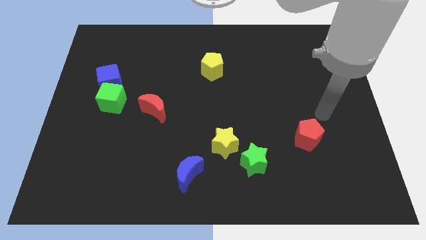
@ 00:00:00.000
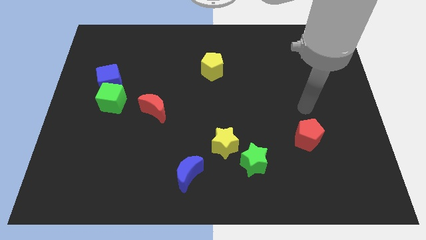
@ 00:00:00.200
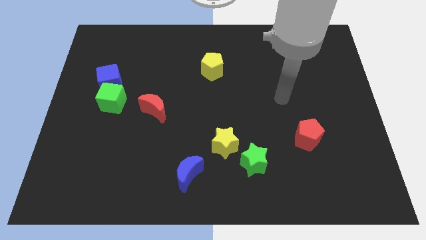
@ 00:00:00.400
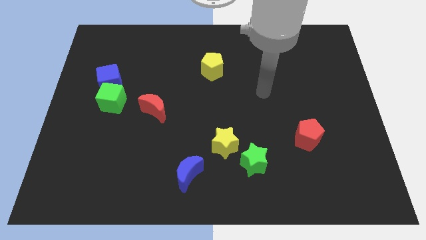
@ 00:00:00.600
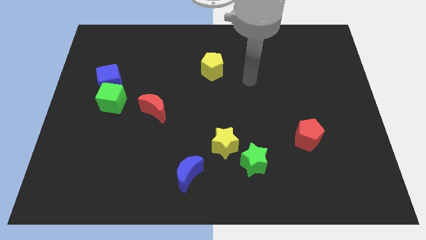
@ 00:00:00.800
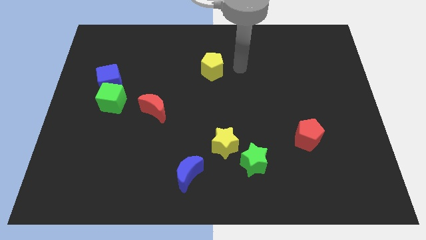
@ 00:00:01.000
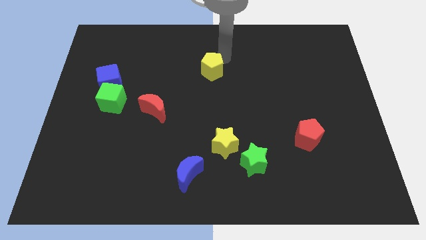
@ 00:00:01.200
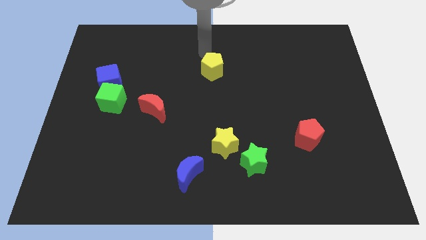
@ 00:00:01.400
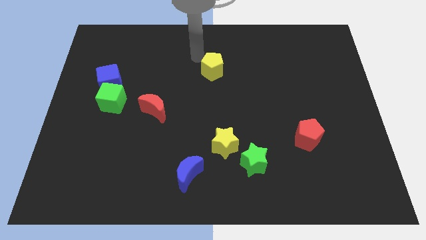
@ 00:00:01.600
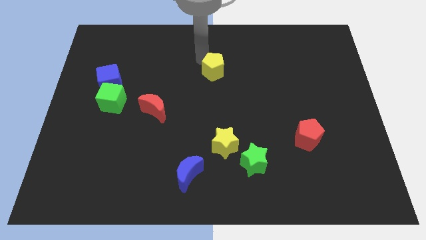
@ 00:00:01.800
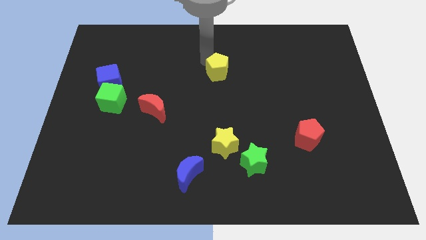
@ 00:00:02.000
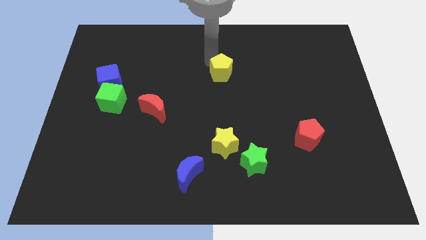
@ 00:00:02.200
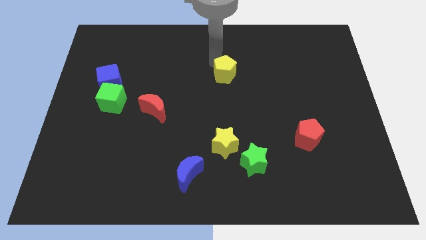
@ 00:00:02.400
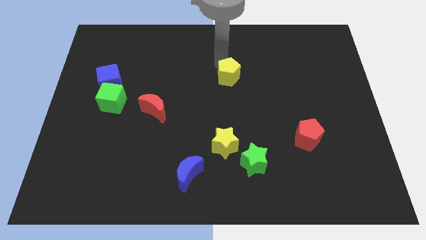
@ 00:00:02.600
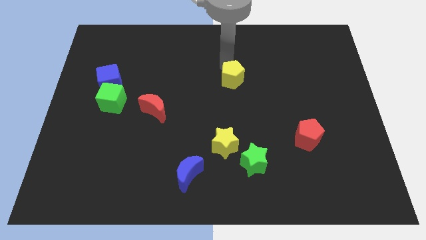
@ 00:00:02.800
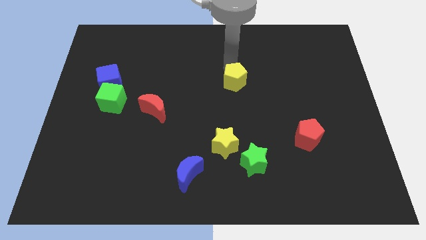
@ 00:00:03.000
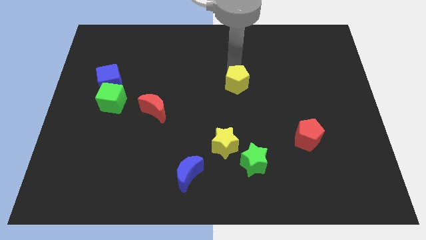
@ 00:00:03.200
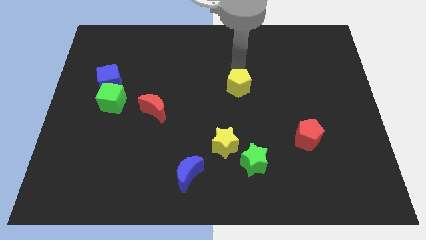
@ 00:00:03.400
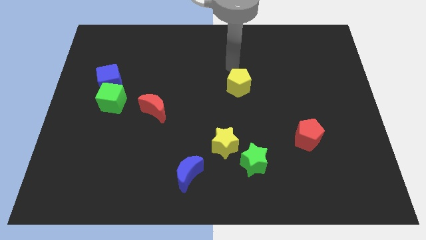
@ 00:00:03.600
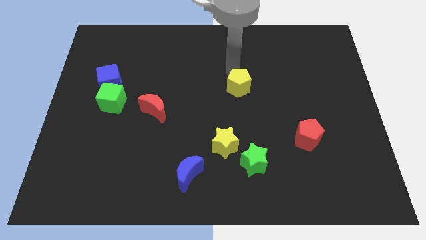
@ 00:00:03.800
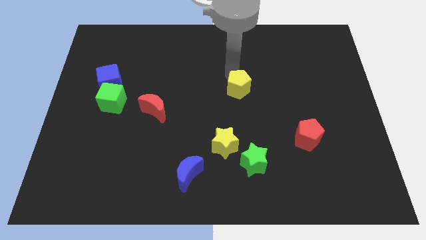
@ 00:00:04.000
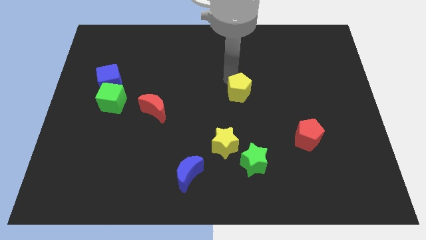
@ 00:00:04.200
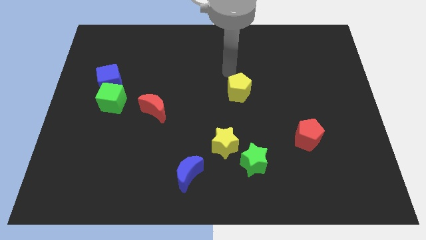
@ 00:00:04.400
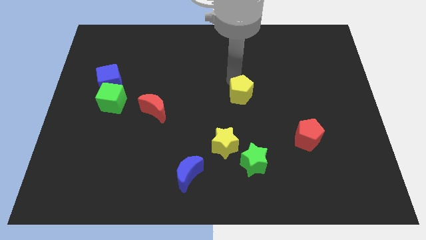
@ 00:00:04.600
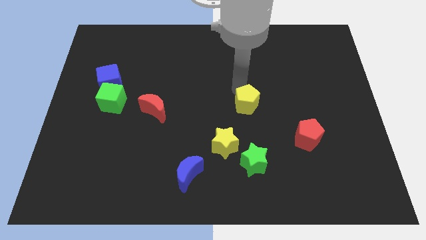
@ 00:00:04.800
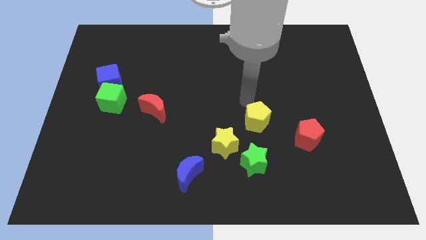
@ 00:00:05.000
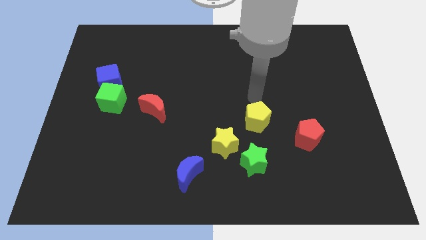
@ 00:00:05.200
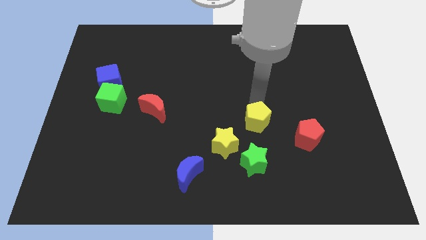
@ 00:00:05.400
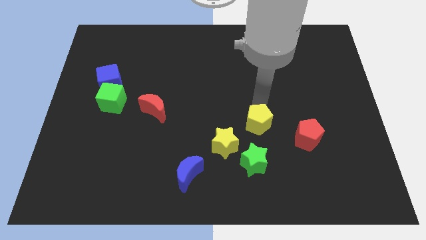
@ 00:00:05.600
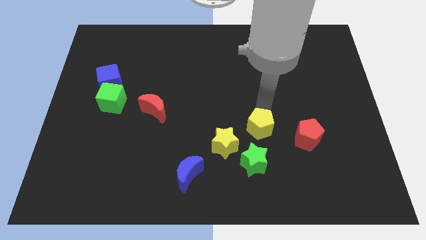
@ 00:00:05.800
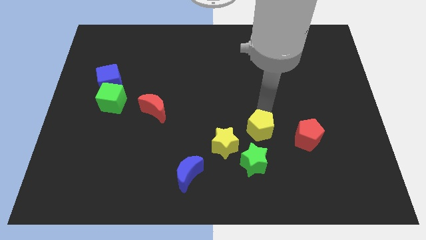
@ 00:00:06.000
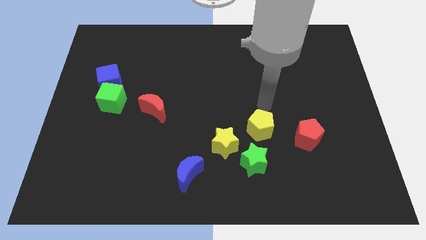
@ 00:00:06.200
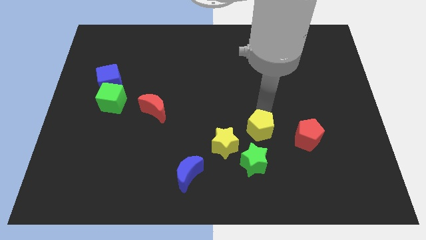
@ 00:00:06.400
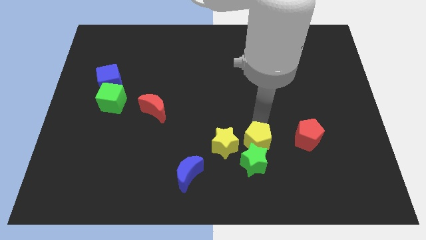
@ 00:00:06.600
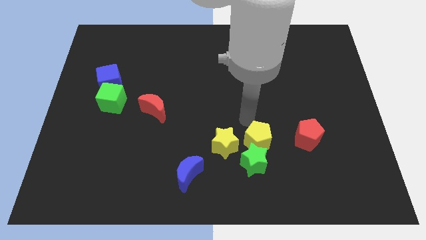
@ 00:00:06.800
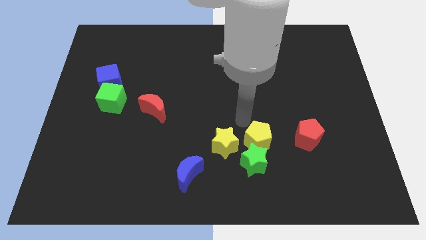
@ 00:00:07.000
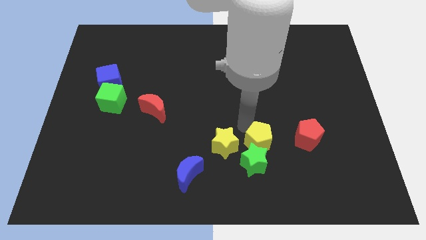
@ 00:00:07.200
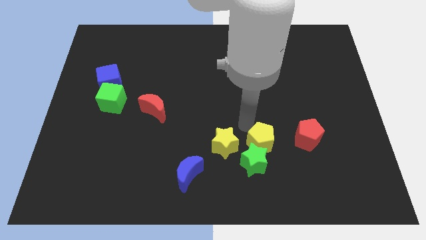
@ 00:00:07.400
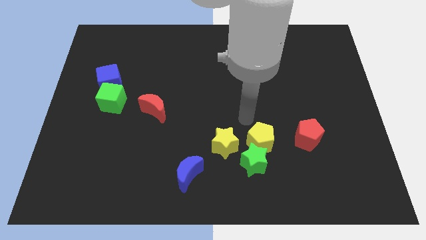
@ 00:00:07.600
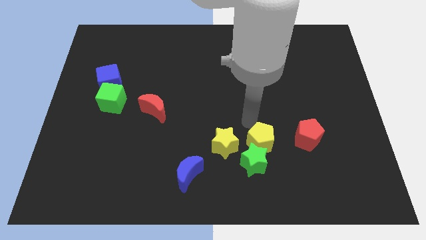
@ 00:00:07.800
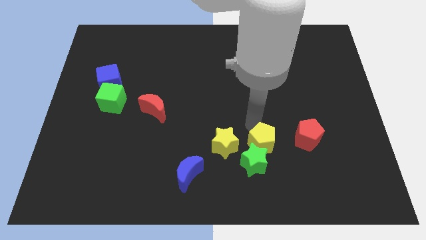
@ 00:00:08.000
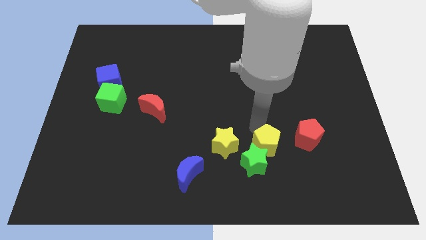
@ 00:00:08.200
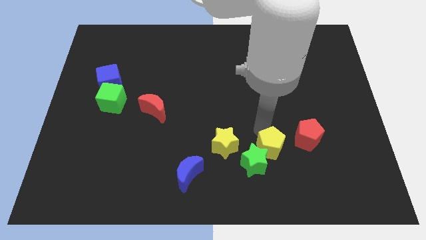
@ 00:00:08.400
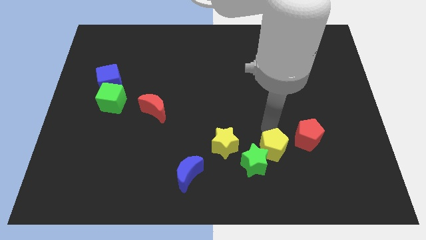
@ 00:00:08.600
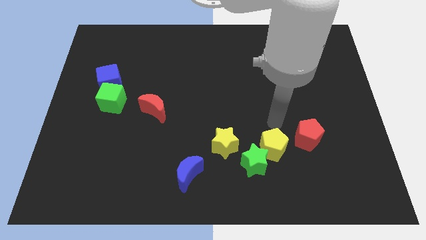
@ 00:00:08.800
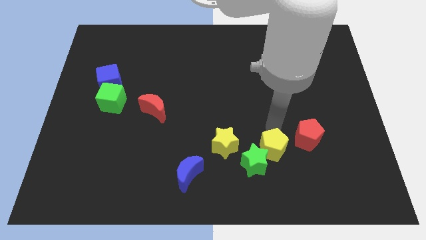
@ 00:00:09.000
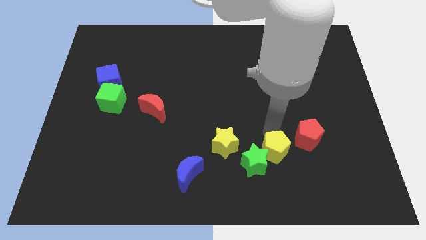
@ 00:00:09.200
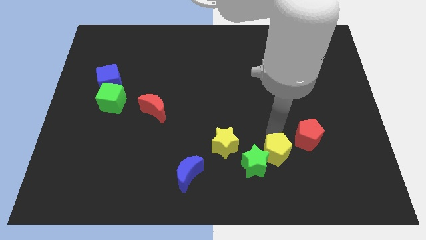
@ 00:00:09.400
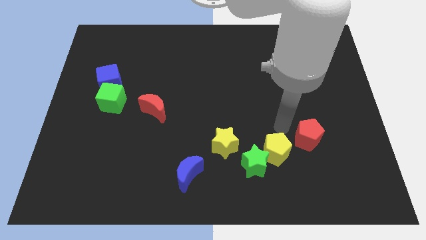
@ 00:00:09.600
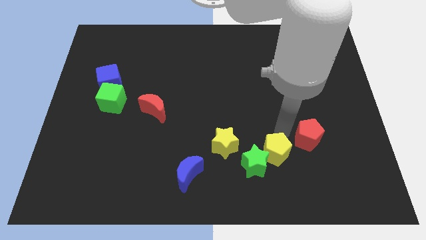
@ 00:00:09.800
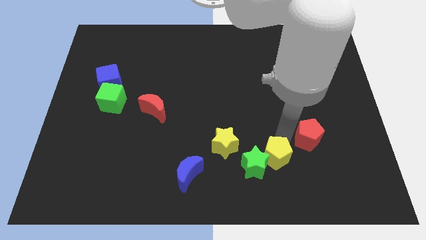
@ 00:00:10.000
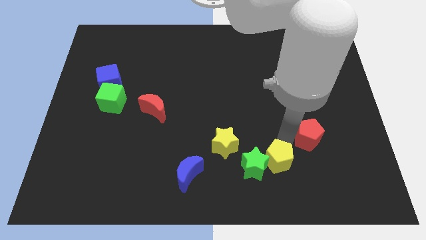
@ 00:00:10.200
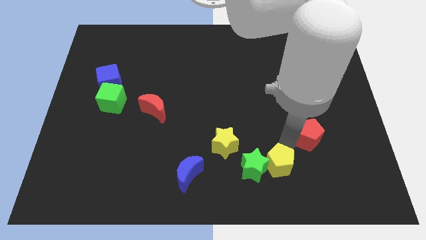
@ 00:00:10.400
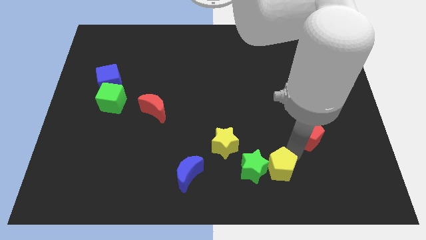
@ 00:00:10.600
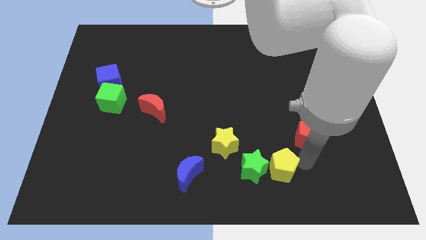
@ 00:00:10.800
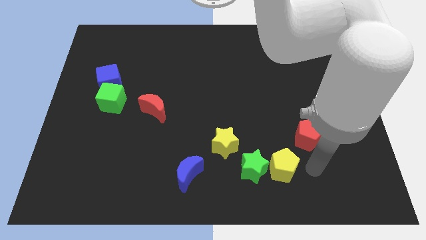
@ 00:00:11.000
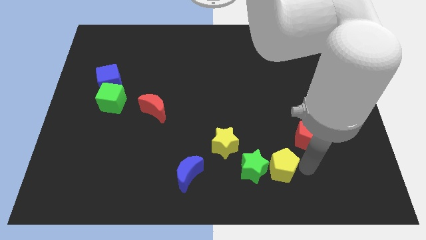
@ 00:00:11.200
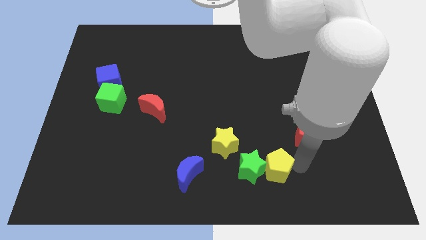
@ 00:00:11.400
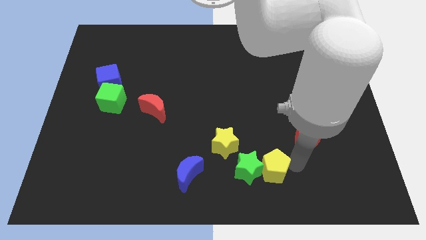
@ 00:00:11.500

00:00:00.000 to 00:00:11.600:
move the yellow pentagon diagonally down and to the right of the yellow star

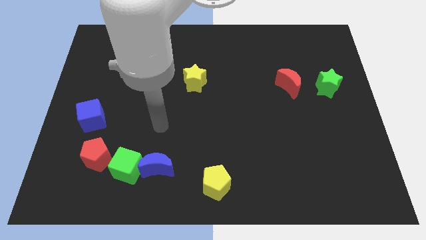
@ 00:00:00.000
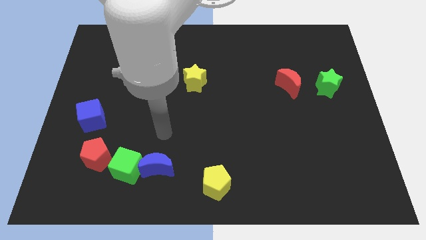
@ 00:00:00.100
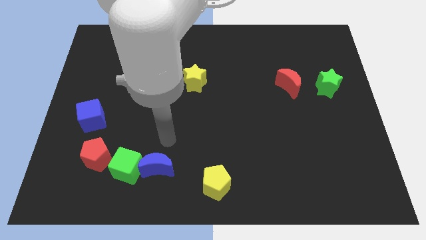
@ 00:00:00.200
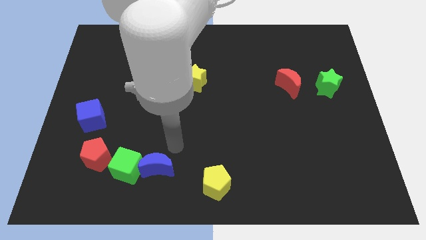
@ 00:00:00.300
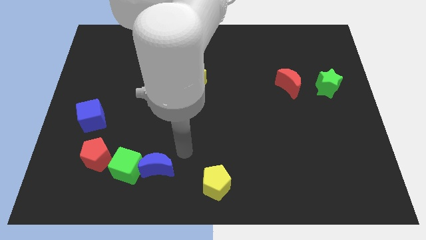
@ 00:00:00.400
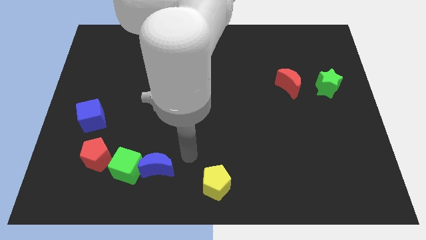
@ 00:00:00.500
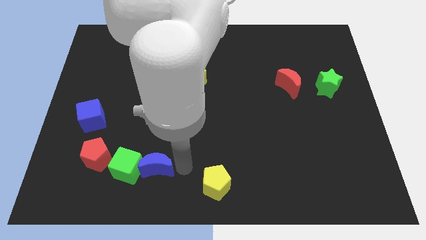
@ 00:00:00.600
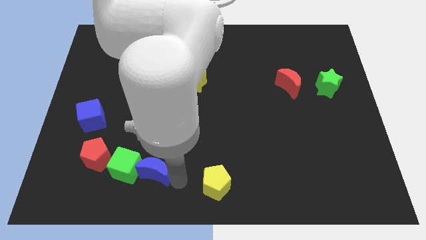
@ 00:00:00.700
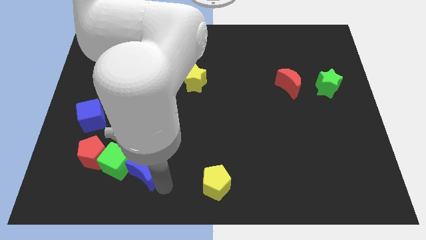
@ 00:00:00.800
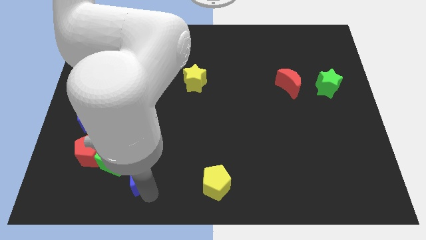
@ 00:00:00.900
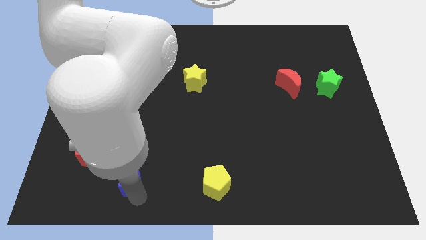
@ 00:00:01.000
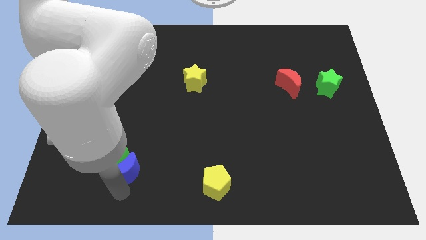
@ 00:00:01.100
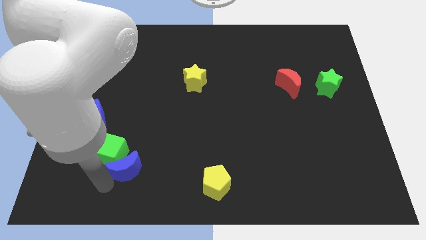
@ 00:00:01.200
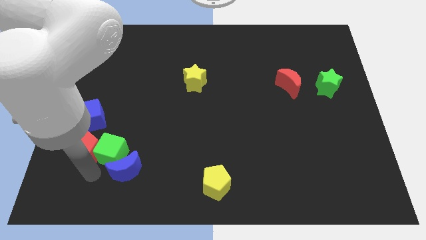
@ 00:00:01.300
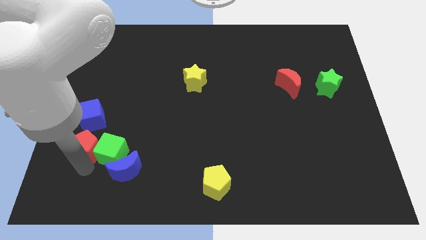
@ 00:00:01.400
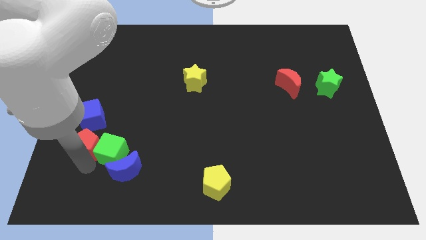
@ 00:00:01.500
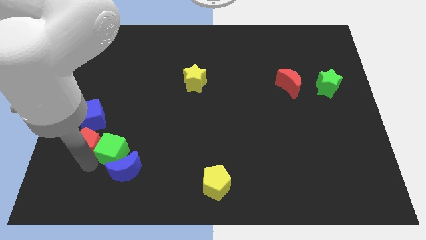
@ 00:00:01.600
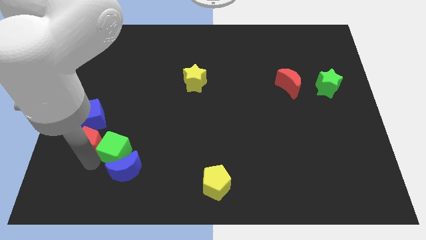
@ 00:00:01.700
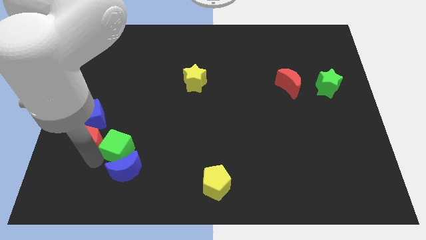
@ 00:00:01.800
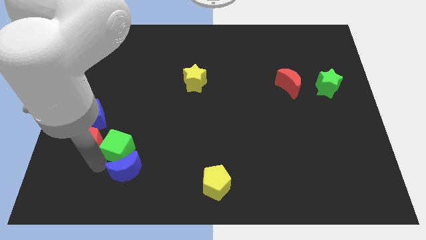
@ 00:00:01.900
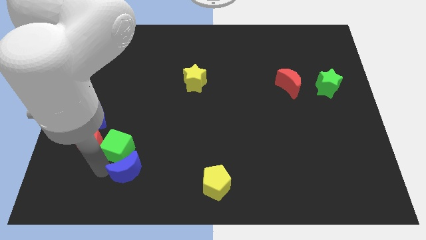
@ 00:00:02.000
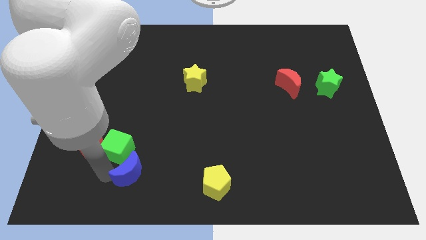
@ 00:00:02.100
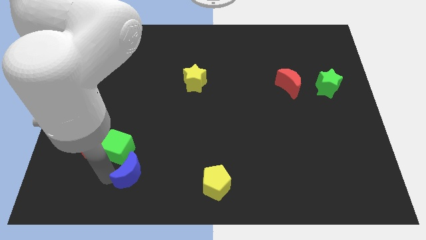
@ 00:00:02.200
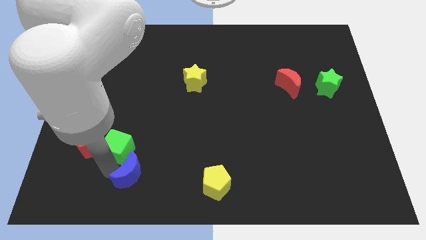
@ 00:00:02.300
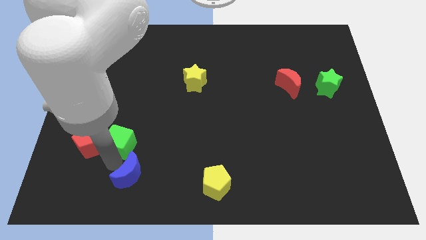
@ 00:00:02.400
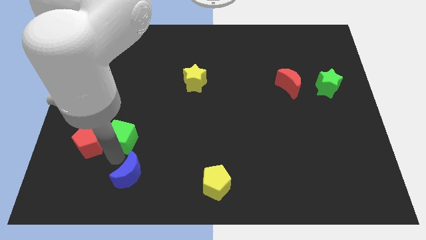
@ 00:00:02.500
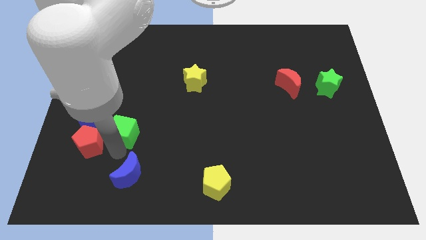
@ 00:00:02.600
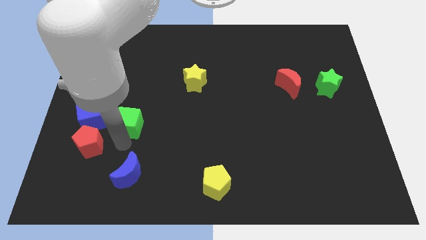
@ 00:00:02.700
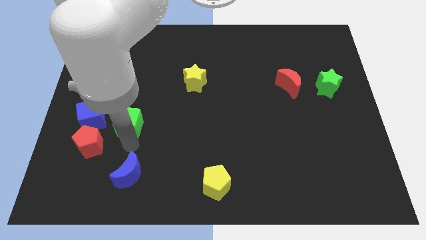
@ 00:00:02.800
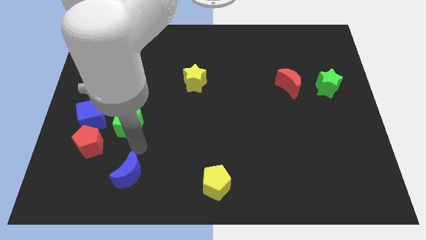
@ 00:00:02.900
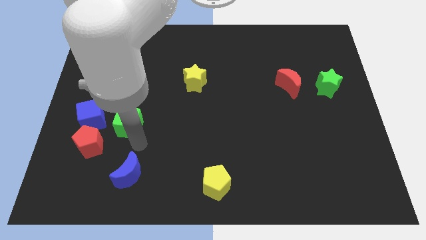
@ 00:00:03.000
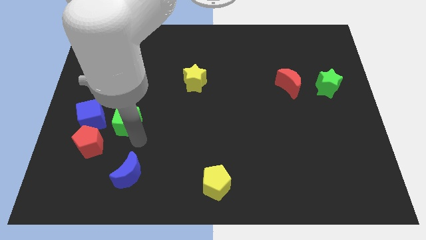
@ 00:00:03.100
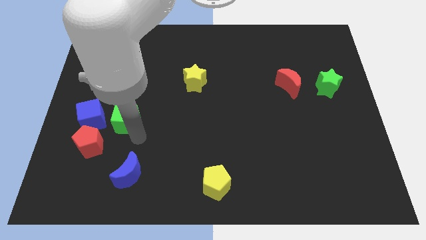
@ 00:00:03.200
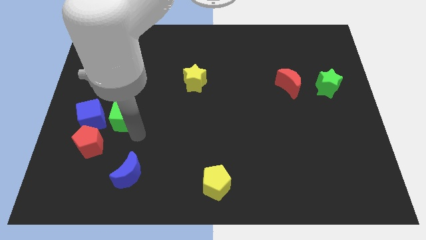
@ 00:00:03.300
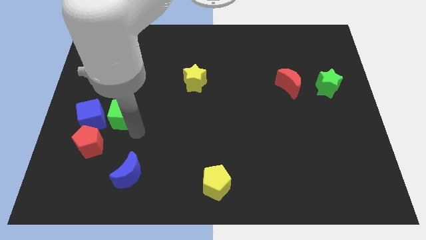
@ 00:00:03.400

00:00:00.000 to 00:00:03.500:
move the green cube to the top right of the blue cube
